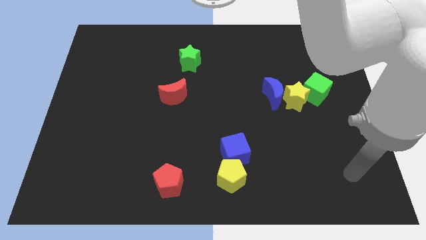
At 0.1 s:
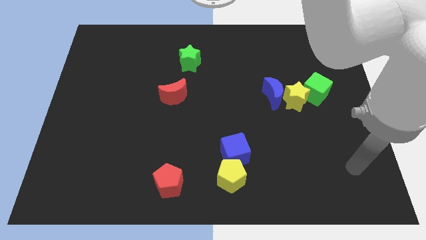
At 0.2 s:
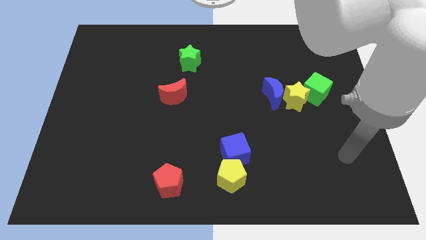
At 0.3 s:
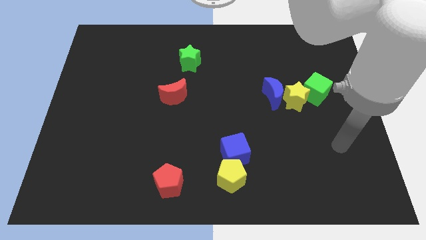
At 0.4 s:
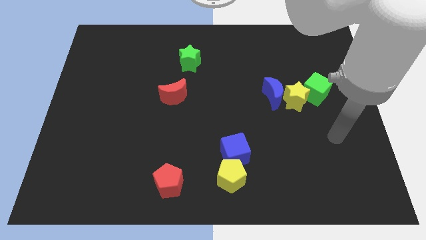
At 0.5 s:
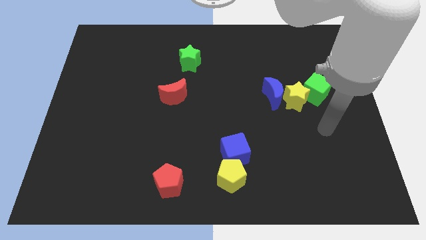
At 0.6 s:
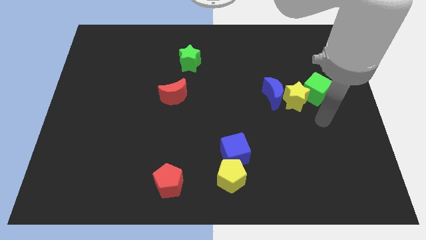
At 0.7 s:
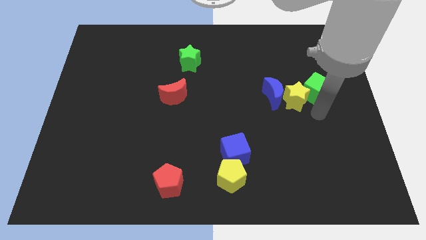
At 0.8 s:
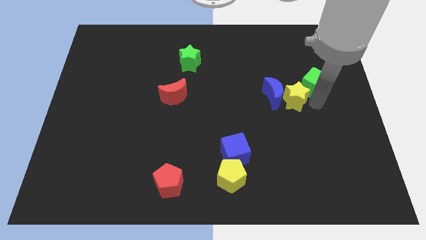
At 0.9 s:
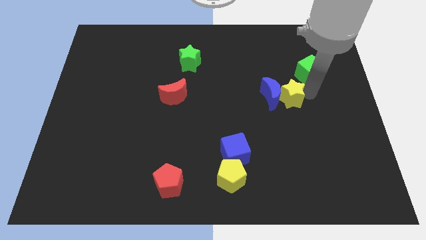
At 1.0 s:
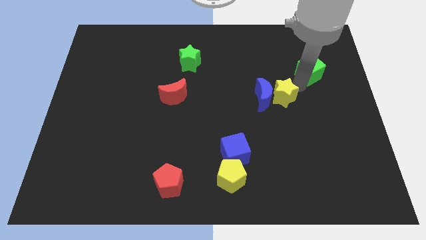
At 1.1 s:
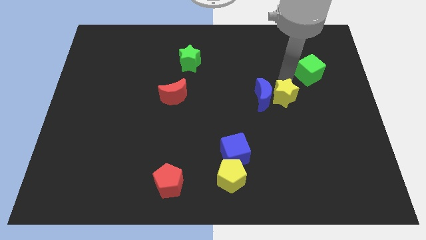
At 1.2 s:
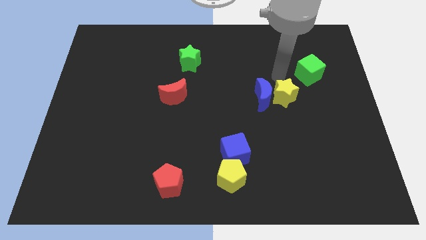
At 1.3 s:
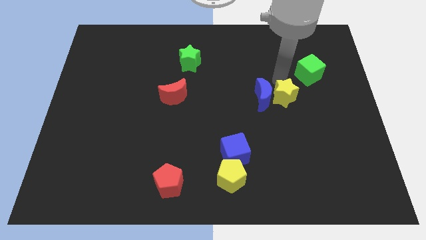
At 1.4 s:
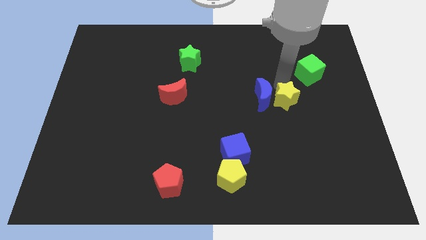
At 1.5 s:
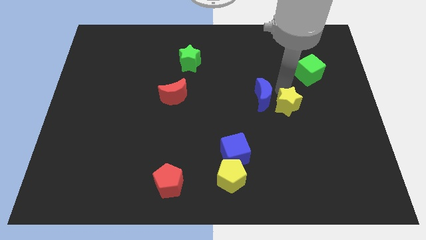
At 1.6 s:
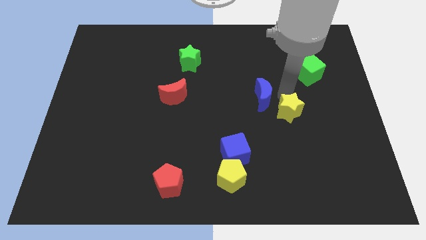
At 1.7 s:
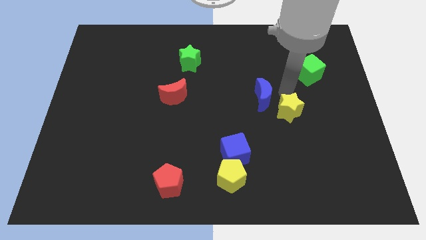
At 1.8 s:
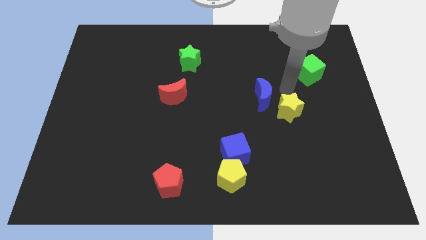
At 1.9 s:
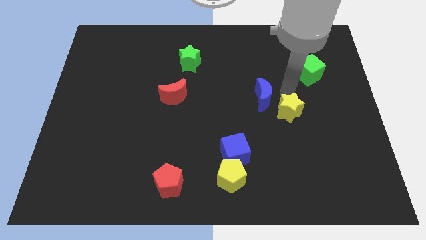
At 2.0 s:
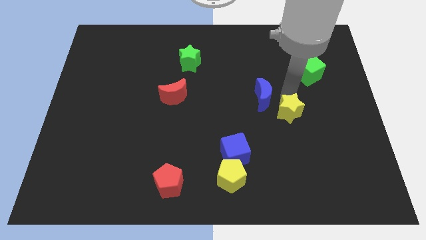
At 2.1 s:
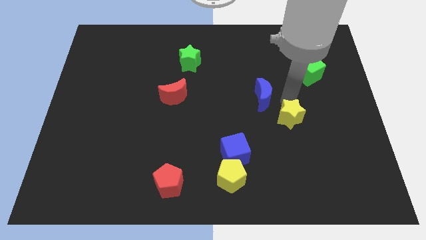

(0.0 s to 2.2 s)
pull the yellow star apart from the blue moon and green cube

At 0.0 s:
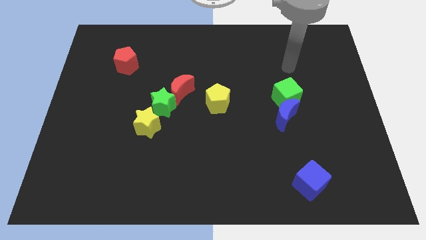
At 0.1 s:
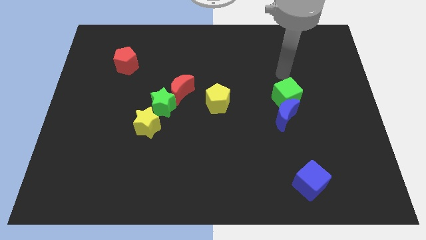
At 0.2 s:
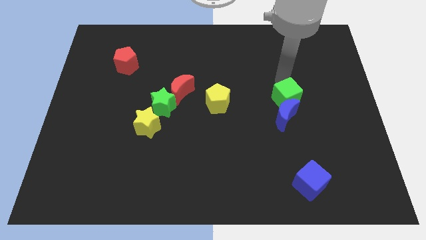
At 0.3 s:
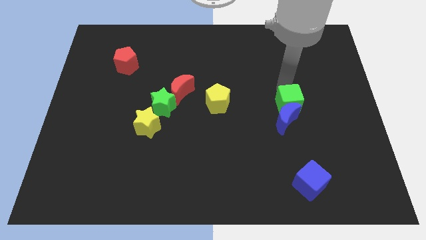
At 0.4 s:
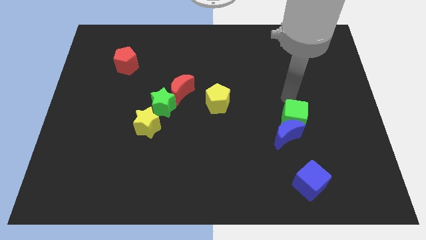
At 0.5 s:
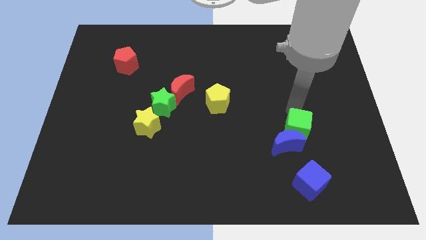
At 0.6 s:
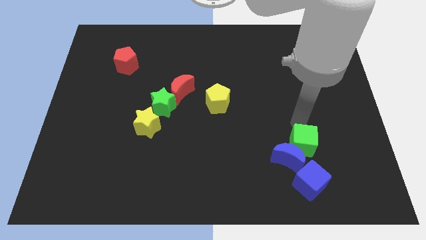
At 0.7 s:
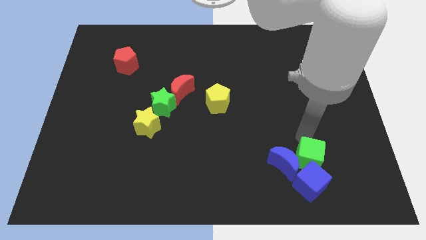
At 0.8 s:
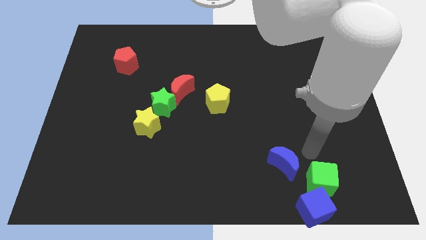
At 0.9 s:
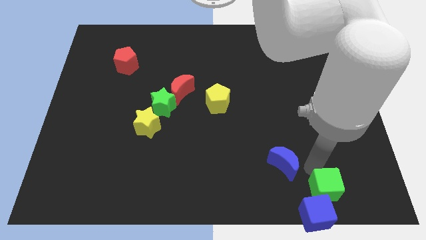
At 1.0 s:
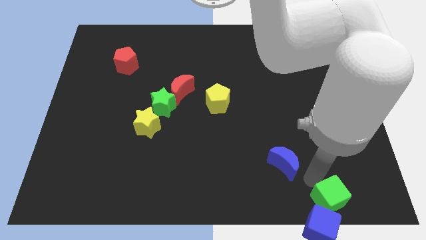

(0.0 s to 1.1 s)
move the blue moon away from the green cube

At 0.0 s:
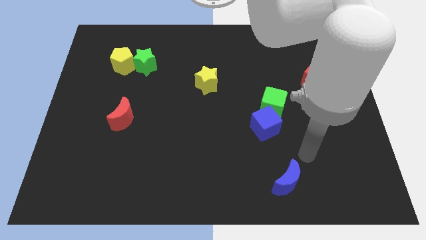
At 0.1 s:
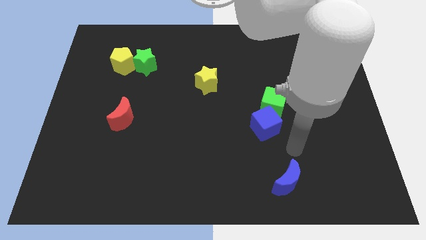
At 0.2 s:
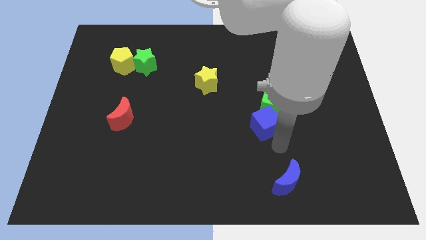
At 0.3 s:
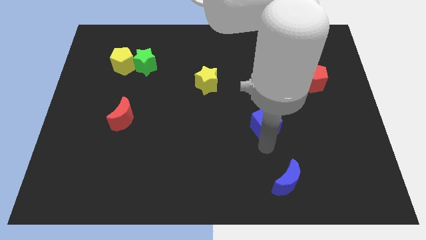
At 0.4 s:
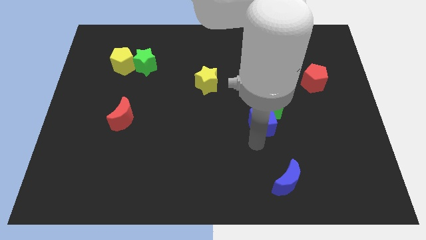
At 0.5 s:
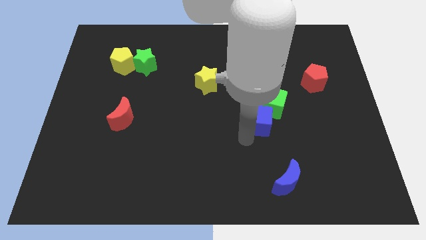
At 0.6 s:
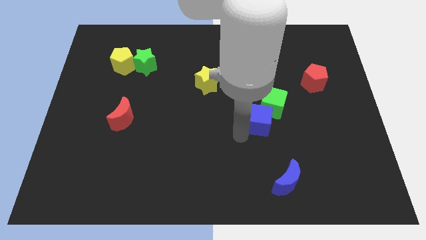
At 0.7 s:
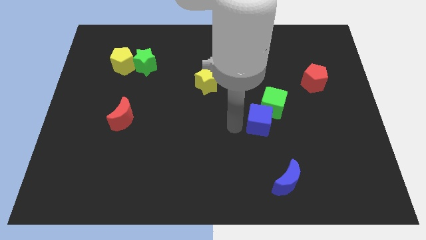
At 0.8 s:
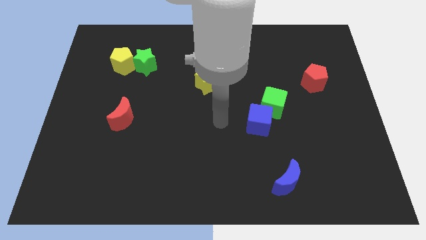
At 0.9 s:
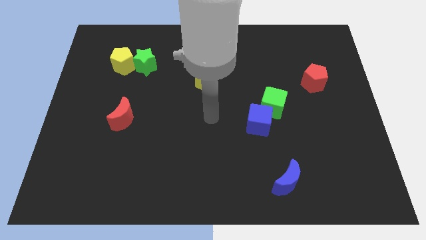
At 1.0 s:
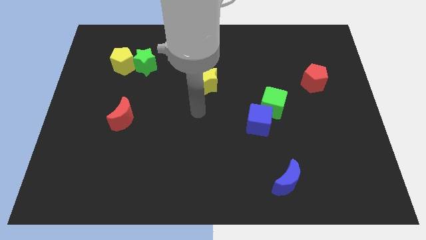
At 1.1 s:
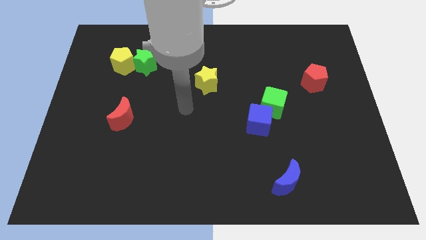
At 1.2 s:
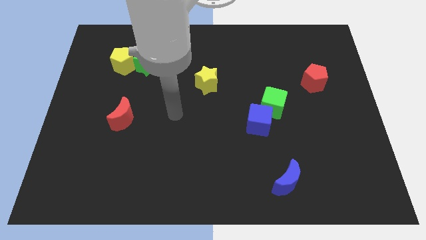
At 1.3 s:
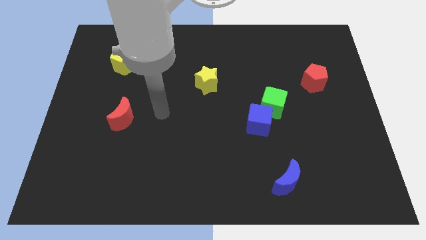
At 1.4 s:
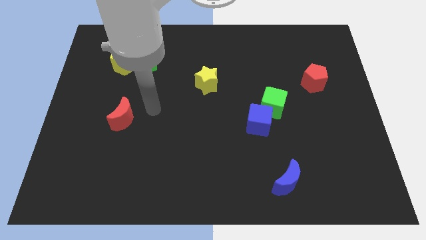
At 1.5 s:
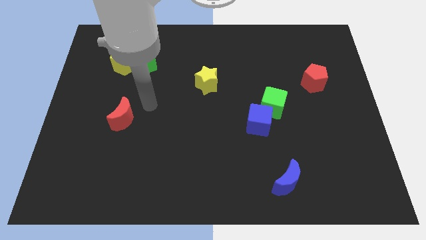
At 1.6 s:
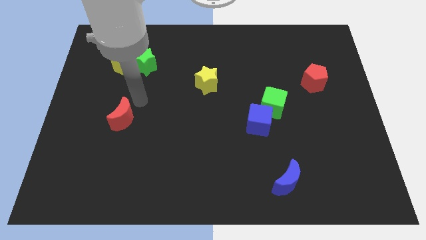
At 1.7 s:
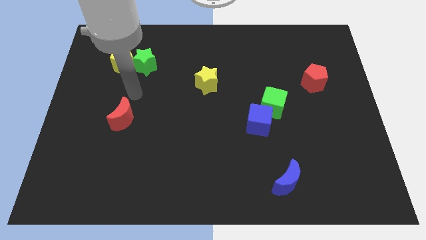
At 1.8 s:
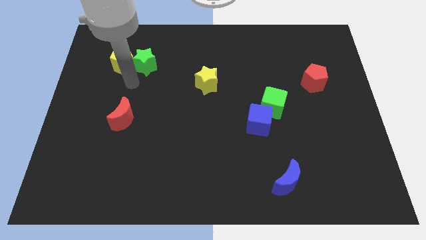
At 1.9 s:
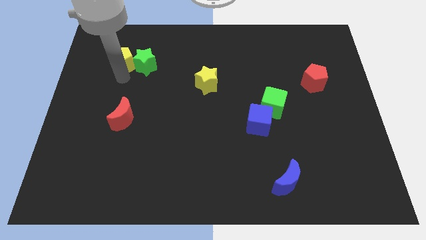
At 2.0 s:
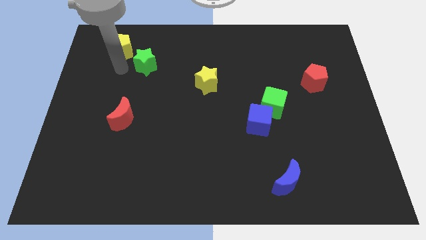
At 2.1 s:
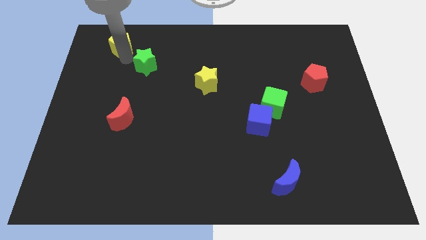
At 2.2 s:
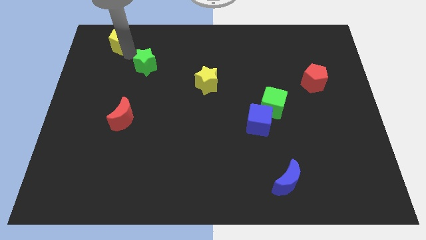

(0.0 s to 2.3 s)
separate the green star from the yellow pentagon

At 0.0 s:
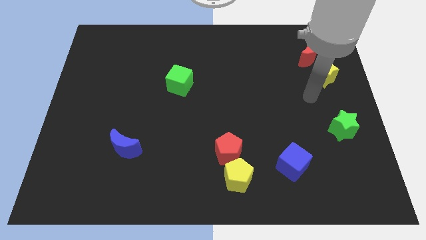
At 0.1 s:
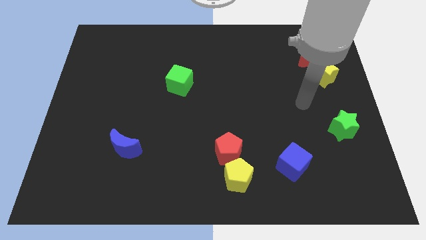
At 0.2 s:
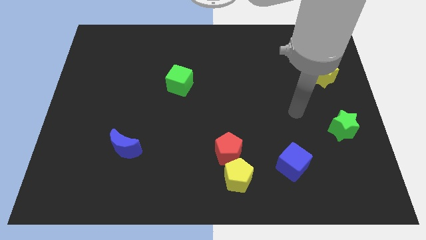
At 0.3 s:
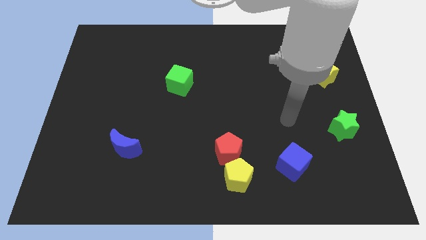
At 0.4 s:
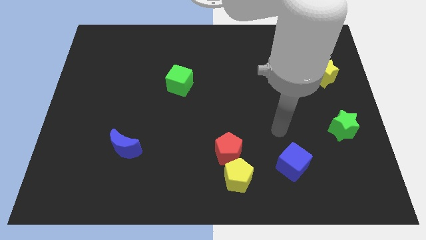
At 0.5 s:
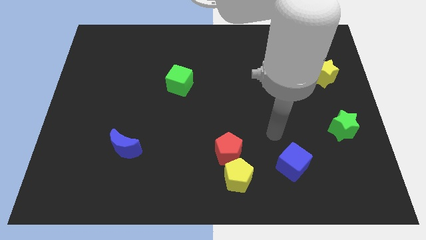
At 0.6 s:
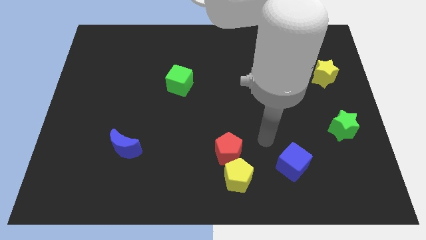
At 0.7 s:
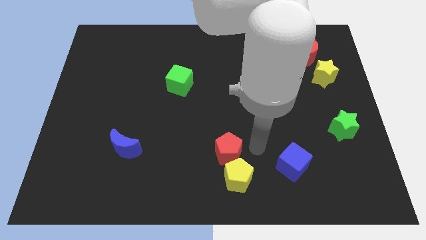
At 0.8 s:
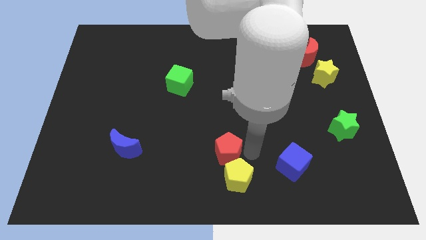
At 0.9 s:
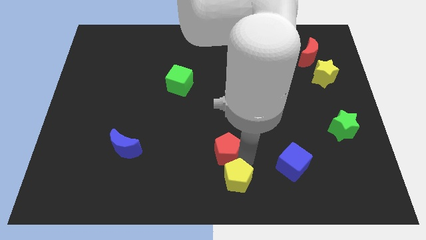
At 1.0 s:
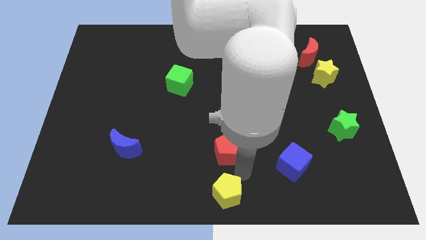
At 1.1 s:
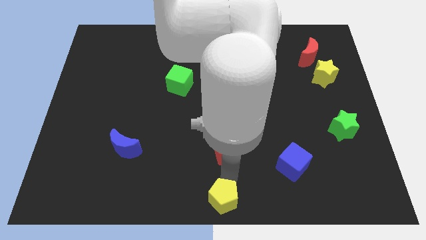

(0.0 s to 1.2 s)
separate the red pentagon from the yellow pentagon

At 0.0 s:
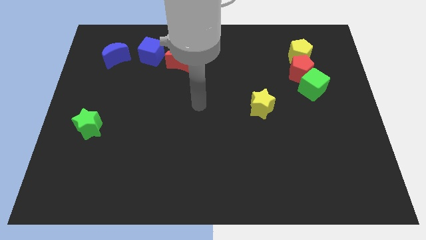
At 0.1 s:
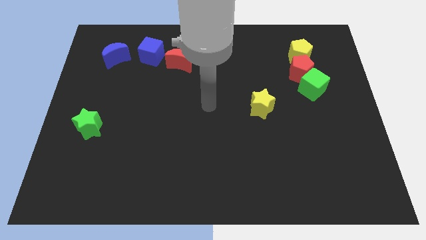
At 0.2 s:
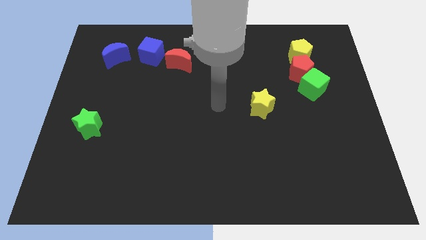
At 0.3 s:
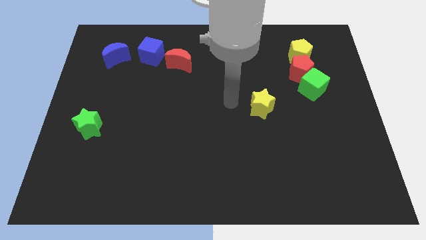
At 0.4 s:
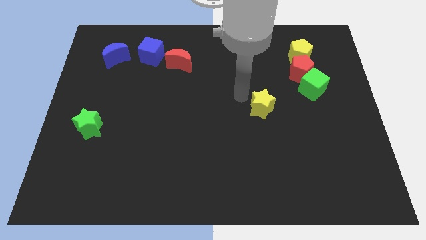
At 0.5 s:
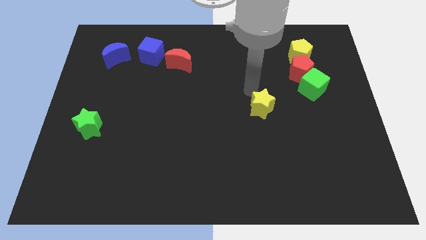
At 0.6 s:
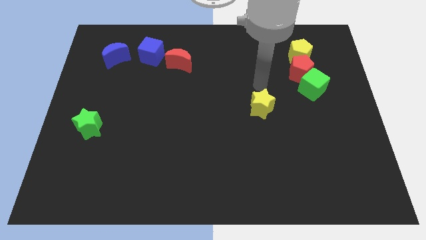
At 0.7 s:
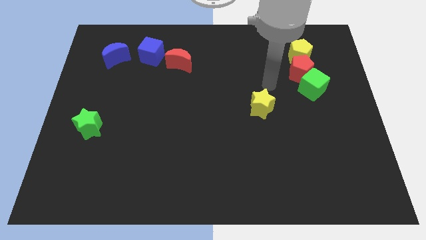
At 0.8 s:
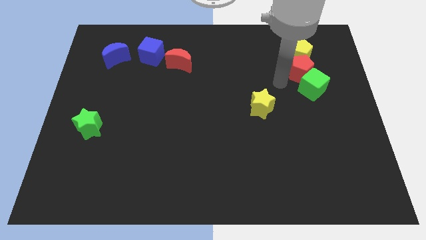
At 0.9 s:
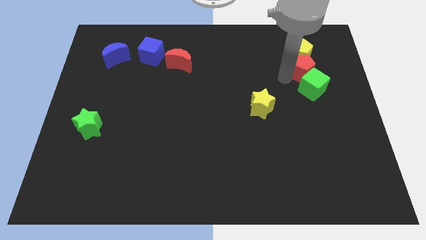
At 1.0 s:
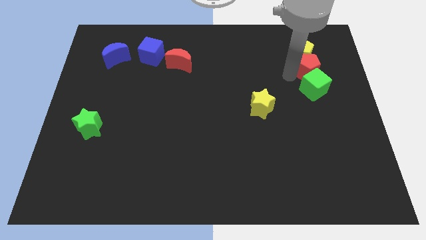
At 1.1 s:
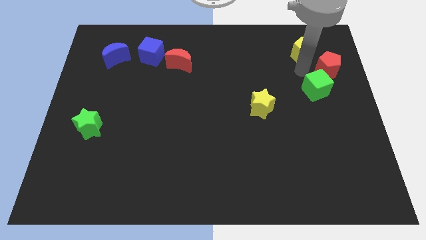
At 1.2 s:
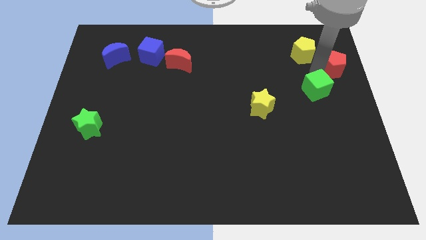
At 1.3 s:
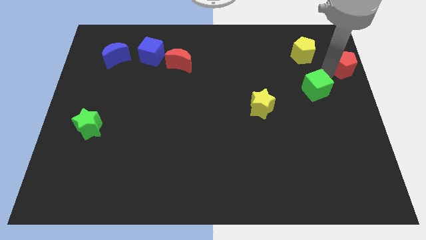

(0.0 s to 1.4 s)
move the green cube away from the red pentagon

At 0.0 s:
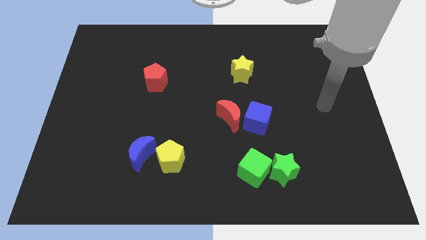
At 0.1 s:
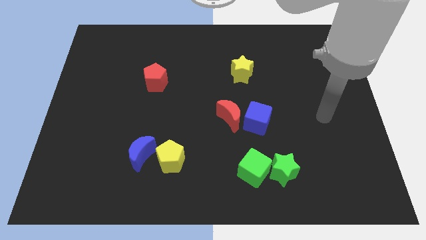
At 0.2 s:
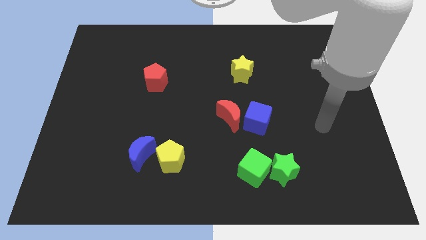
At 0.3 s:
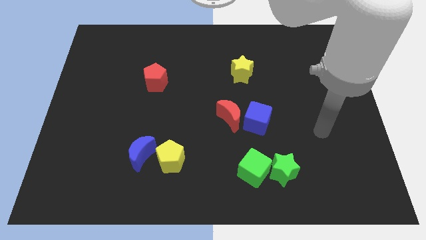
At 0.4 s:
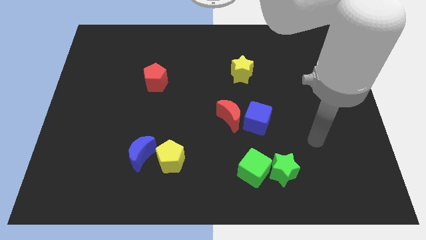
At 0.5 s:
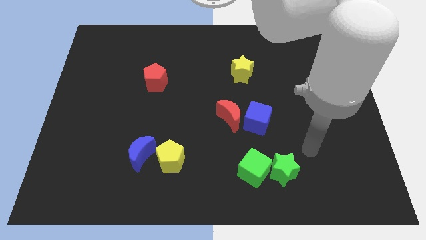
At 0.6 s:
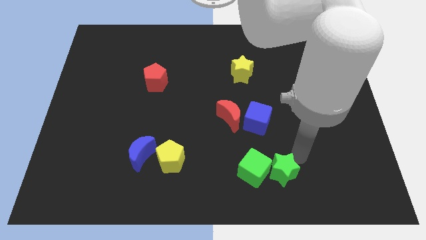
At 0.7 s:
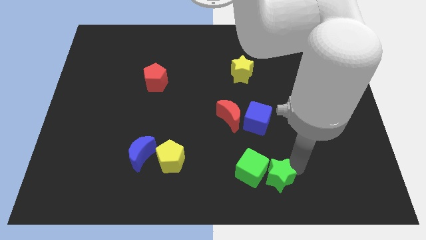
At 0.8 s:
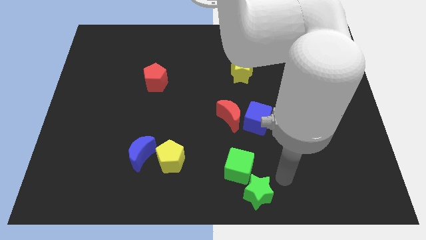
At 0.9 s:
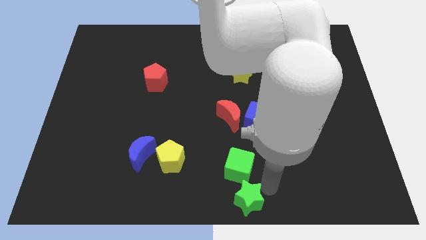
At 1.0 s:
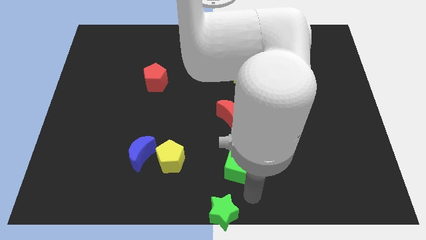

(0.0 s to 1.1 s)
separate the green cube from the green star
